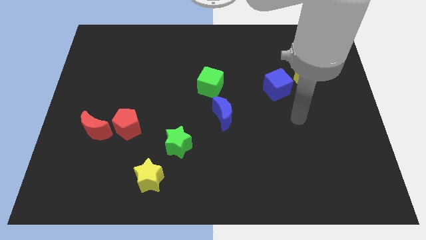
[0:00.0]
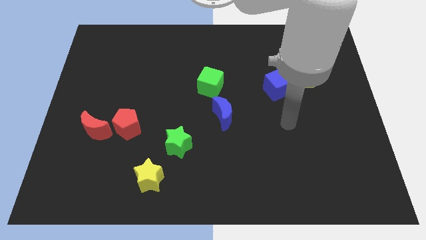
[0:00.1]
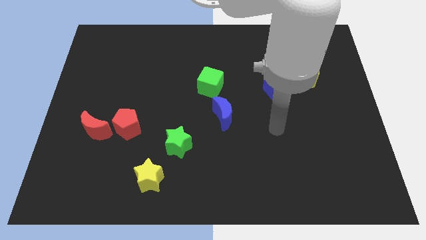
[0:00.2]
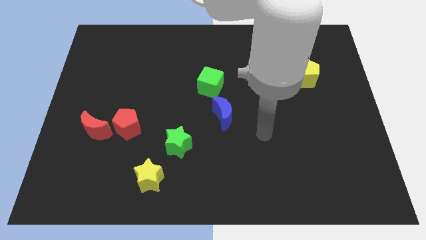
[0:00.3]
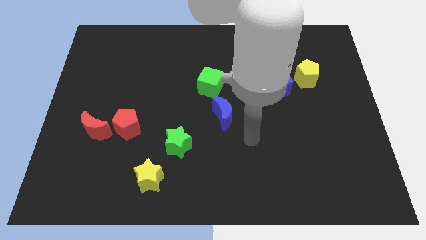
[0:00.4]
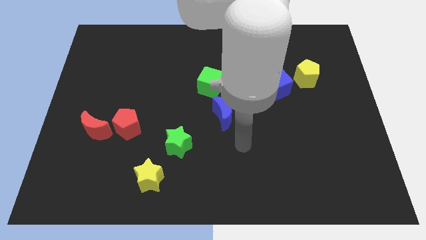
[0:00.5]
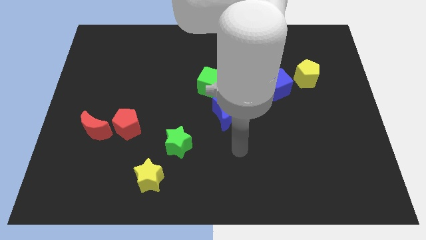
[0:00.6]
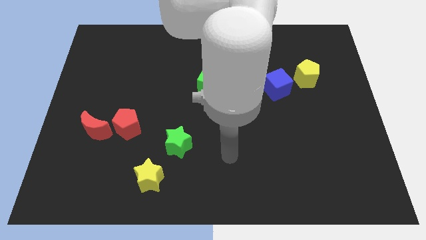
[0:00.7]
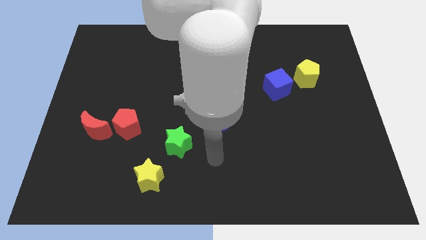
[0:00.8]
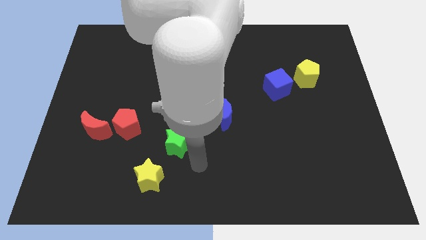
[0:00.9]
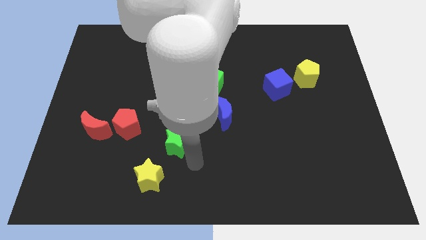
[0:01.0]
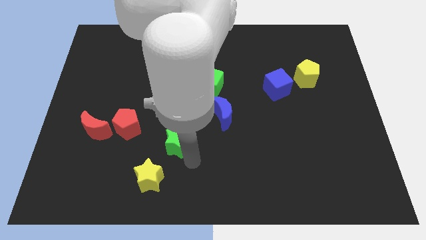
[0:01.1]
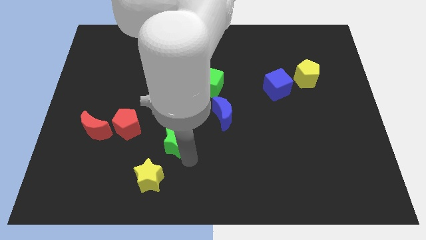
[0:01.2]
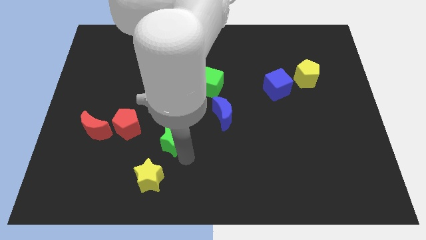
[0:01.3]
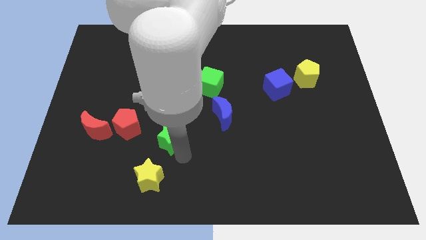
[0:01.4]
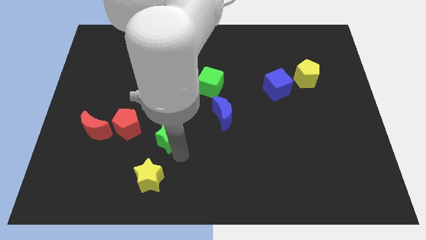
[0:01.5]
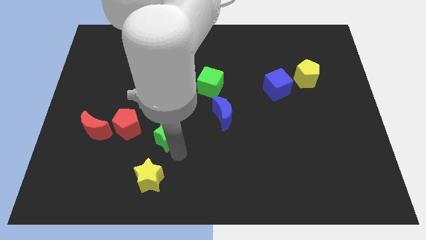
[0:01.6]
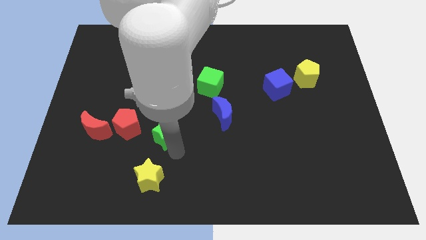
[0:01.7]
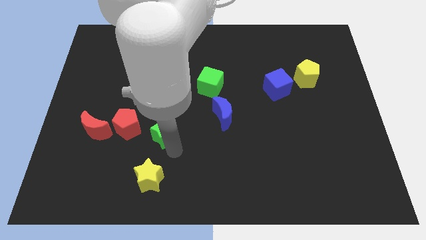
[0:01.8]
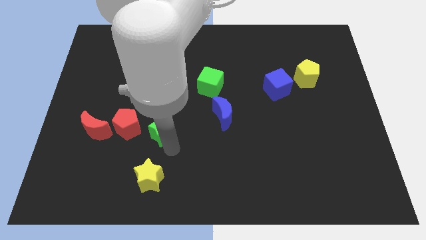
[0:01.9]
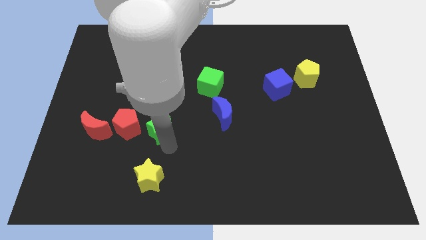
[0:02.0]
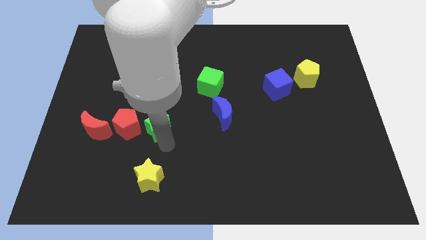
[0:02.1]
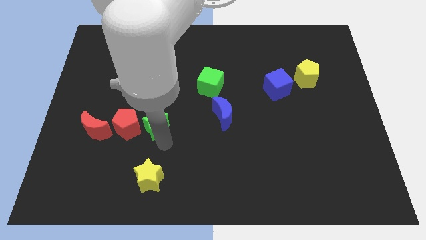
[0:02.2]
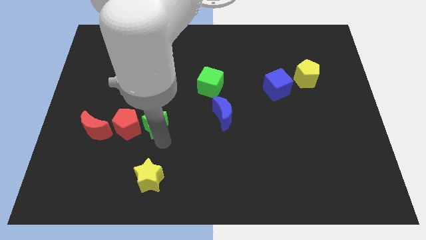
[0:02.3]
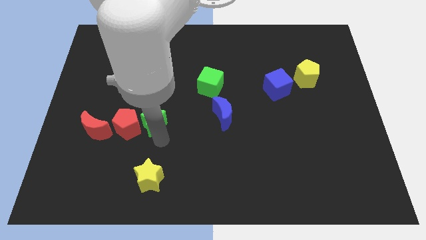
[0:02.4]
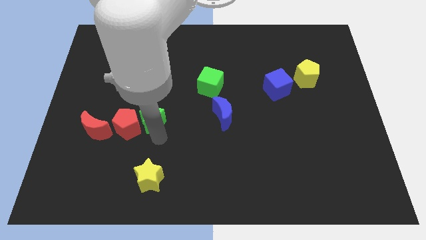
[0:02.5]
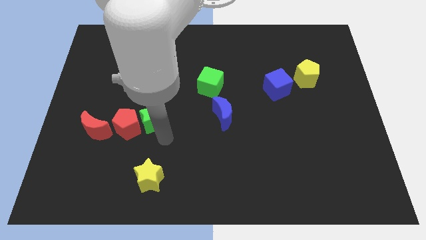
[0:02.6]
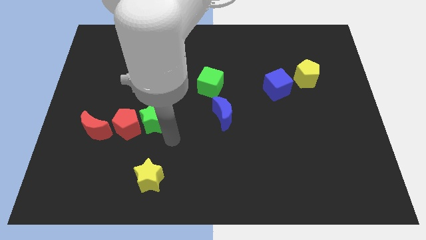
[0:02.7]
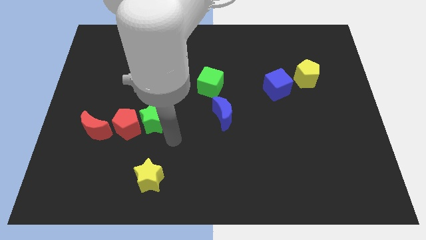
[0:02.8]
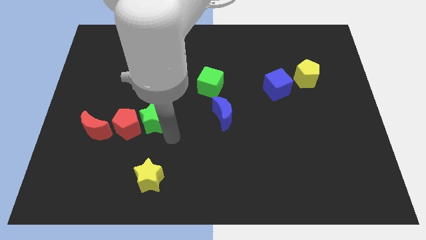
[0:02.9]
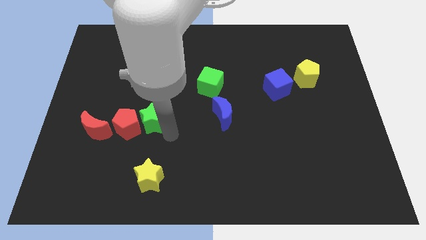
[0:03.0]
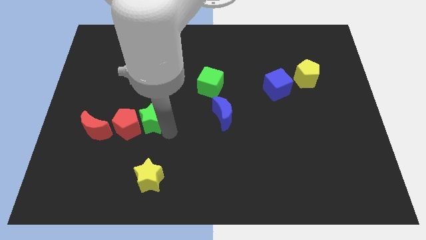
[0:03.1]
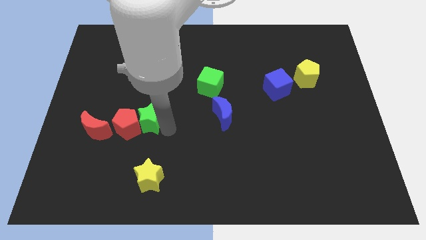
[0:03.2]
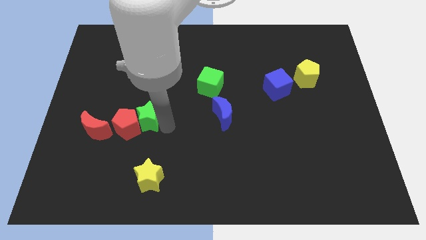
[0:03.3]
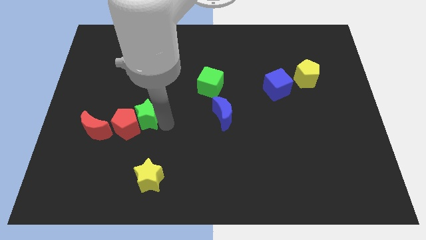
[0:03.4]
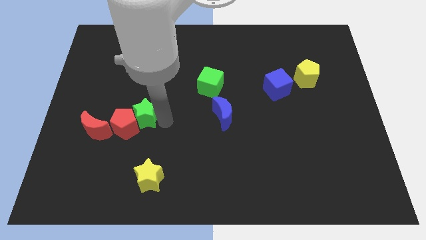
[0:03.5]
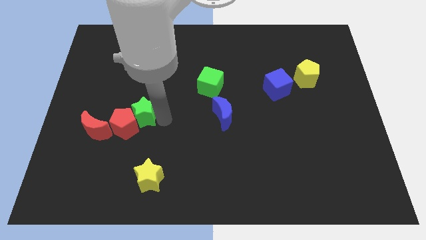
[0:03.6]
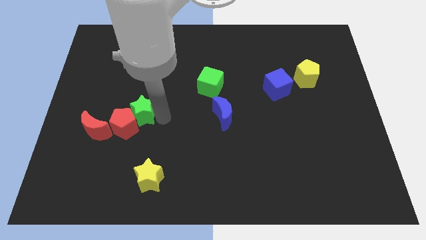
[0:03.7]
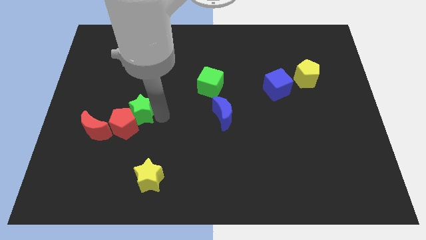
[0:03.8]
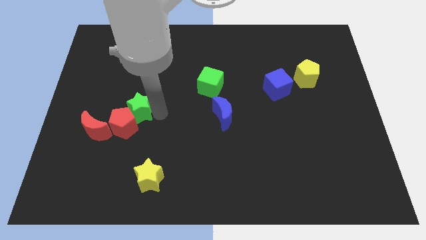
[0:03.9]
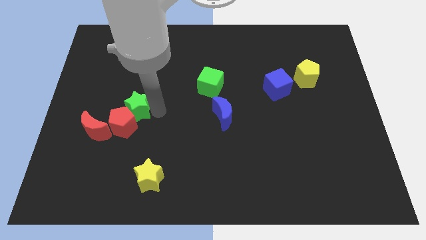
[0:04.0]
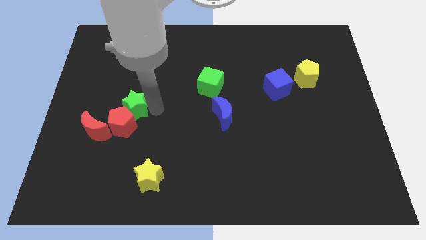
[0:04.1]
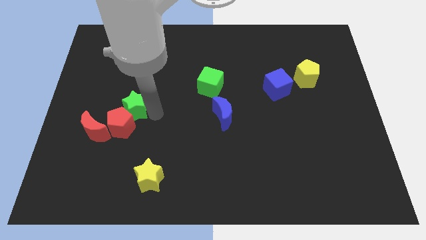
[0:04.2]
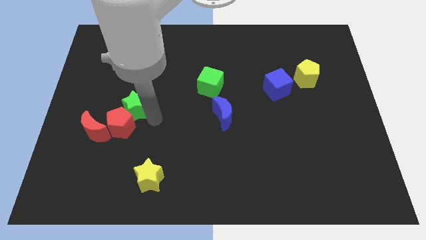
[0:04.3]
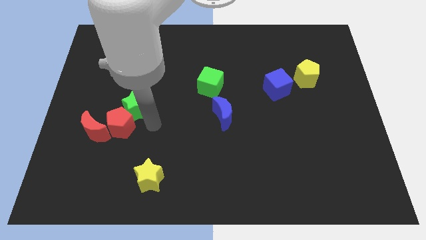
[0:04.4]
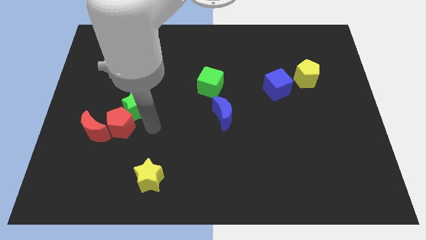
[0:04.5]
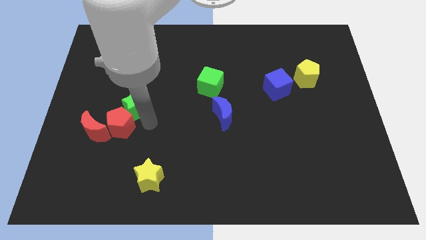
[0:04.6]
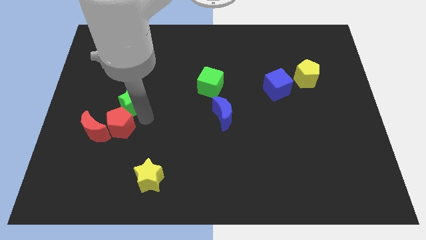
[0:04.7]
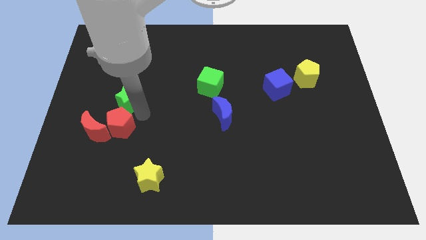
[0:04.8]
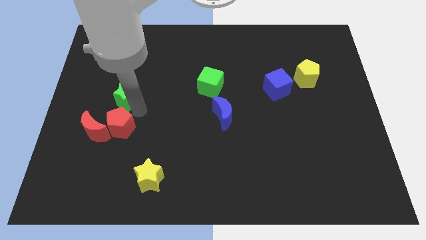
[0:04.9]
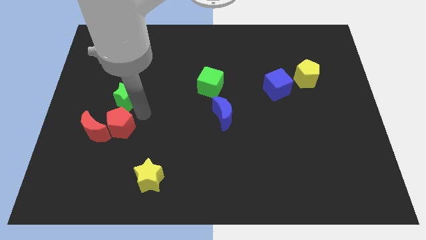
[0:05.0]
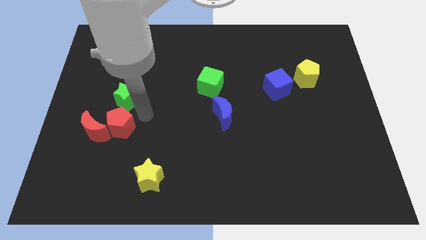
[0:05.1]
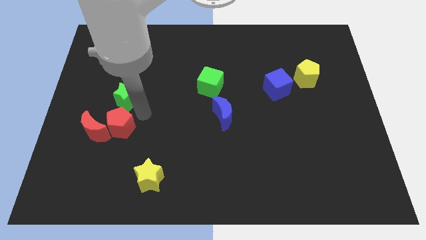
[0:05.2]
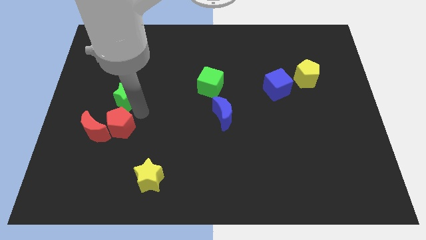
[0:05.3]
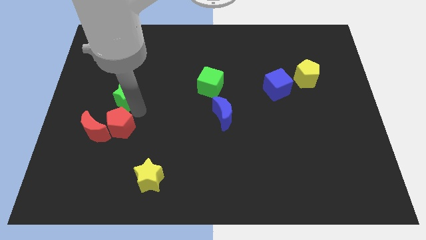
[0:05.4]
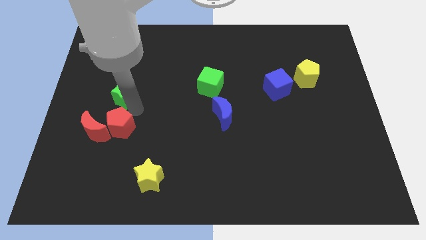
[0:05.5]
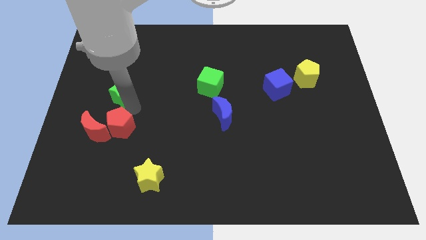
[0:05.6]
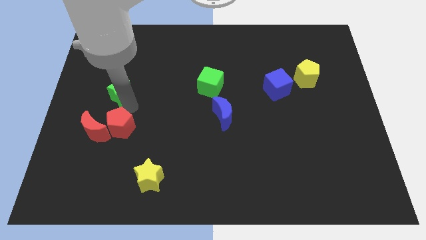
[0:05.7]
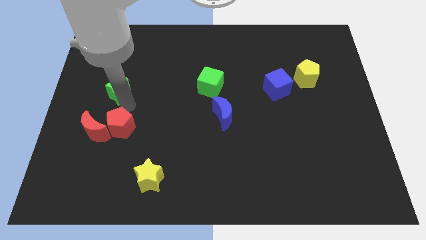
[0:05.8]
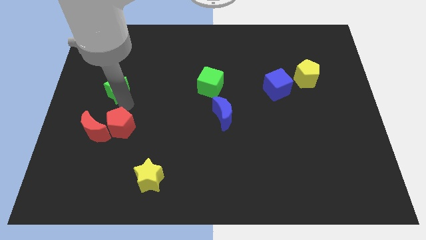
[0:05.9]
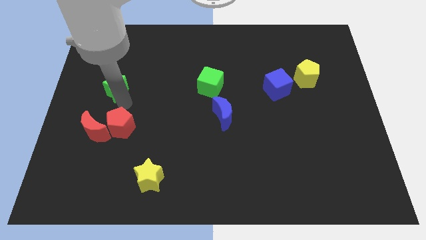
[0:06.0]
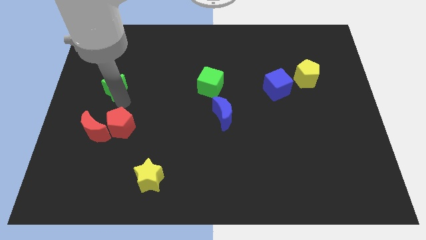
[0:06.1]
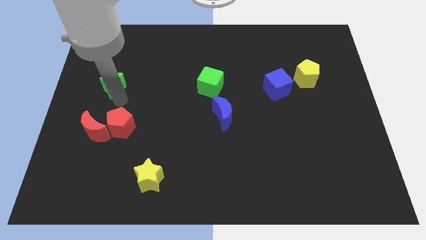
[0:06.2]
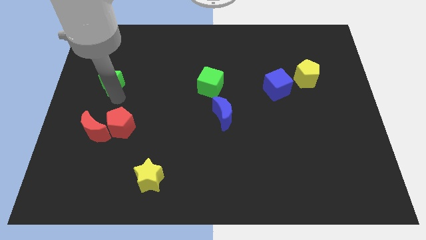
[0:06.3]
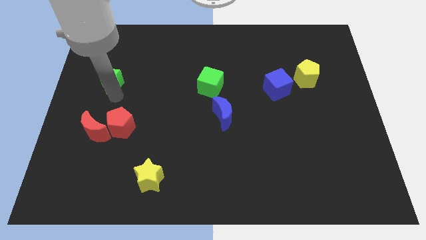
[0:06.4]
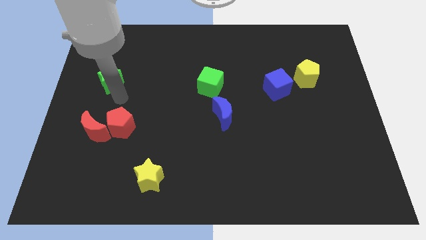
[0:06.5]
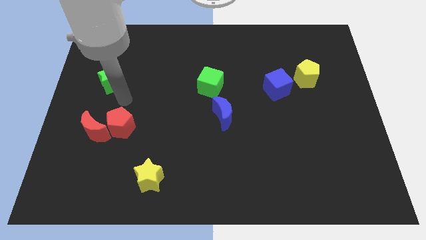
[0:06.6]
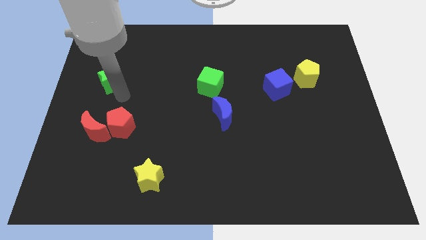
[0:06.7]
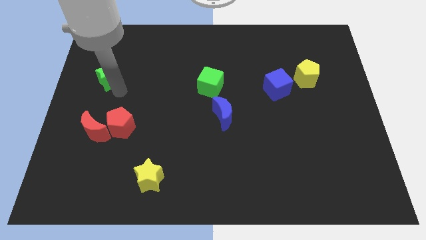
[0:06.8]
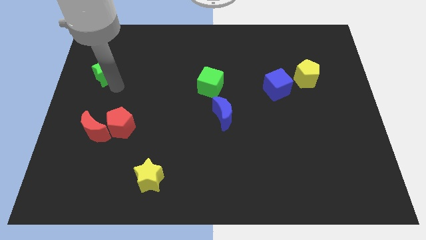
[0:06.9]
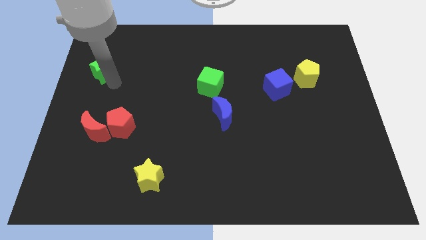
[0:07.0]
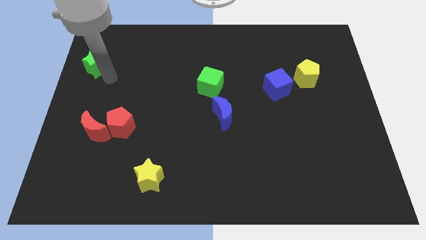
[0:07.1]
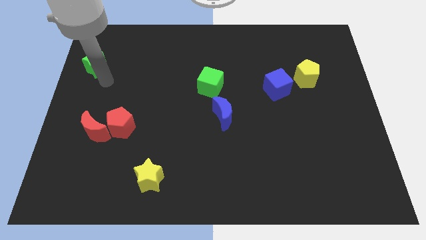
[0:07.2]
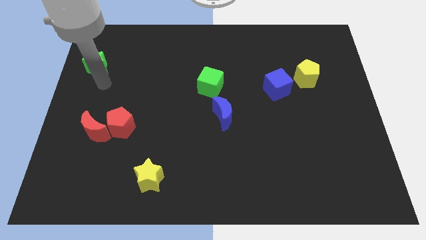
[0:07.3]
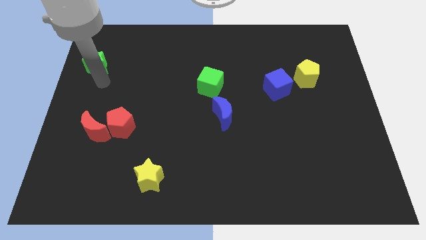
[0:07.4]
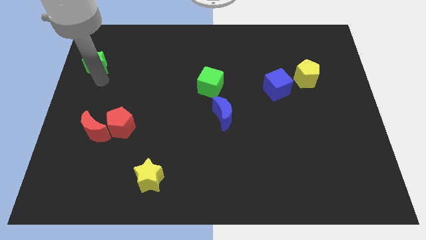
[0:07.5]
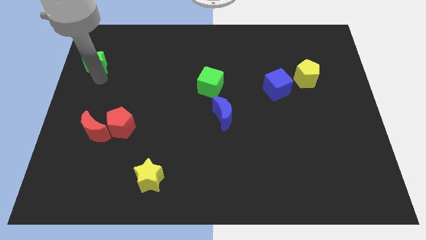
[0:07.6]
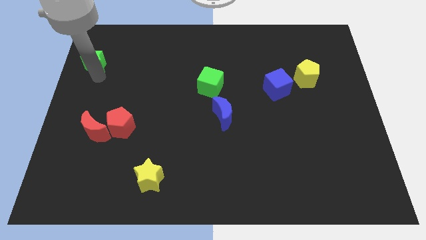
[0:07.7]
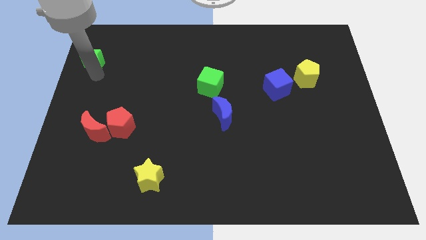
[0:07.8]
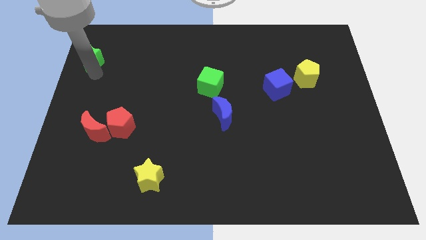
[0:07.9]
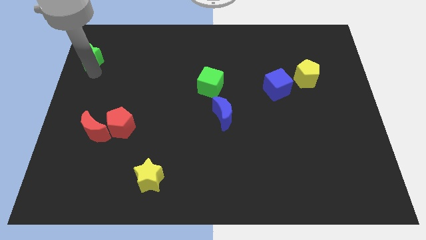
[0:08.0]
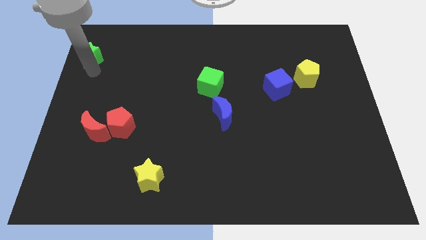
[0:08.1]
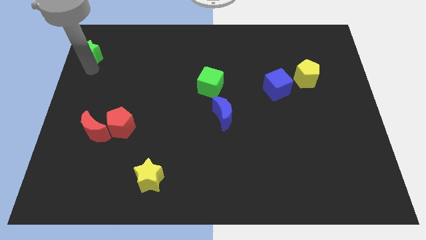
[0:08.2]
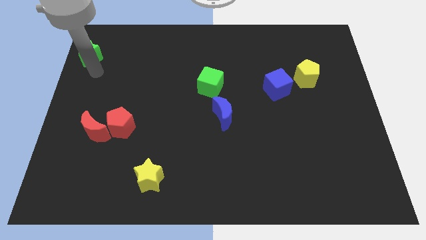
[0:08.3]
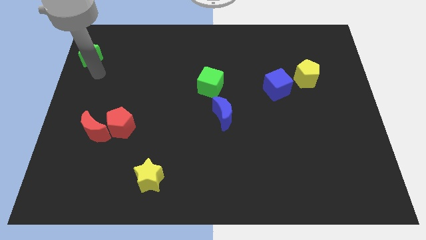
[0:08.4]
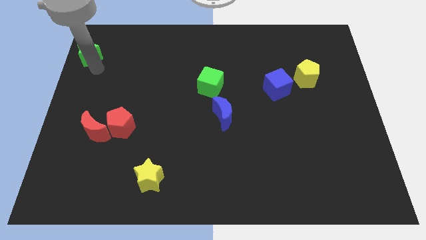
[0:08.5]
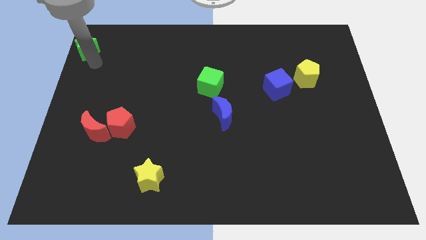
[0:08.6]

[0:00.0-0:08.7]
push the green star to the top left of the board
